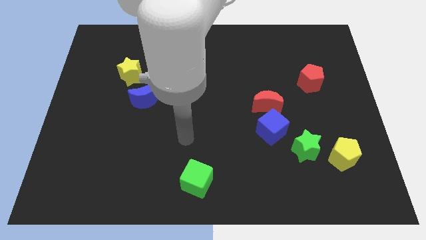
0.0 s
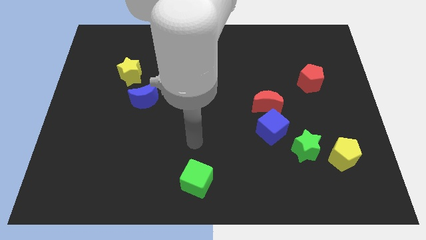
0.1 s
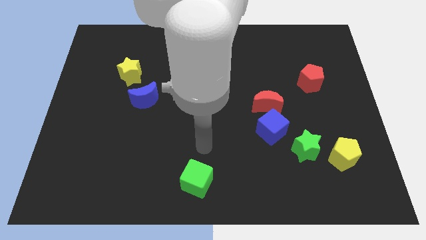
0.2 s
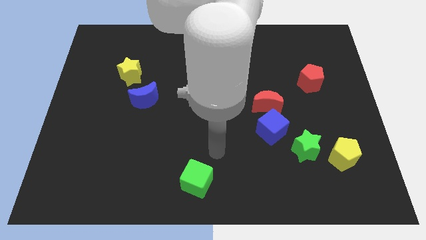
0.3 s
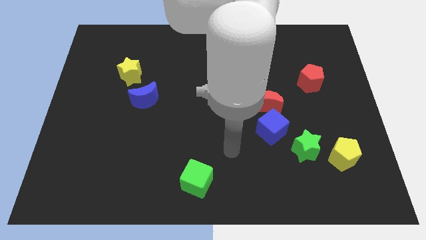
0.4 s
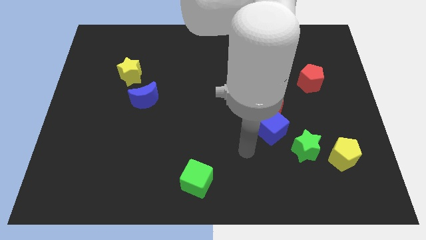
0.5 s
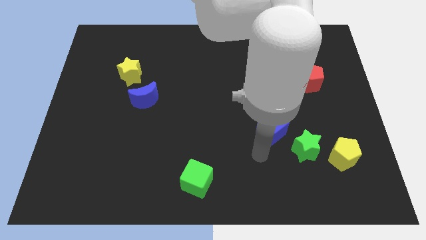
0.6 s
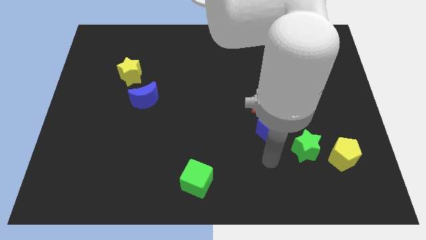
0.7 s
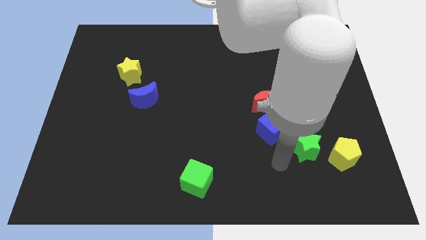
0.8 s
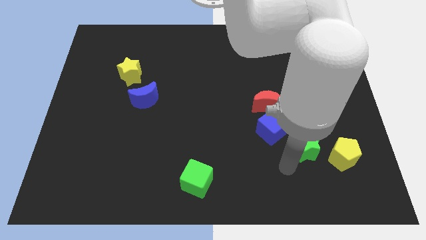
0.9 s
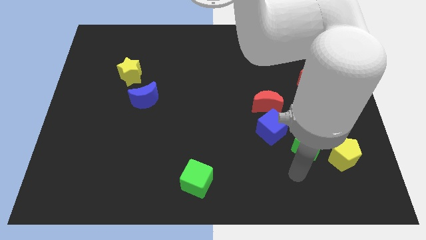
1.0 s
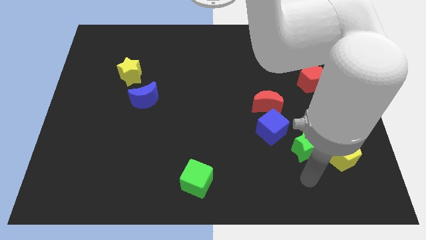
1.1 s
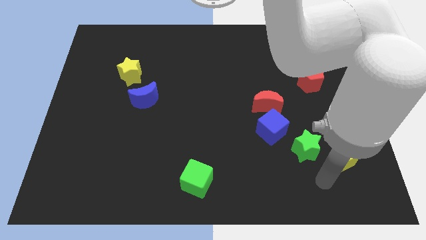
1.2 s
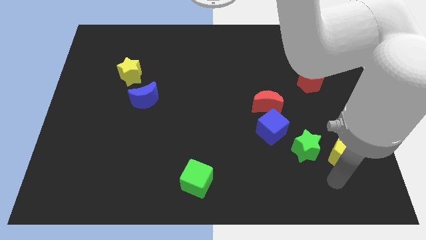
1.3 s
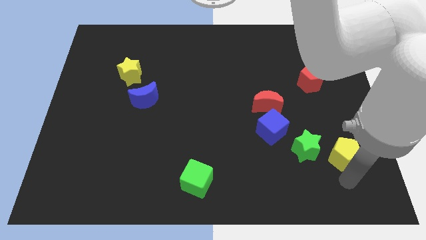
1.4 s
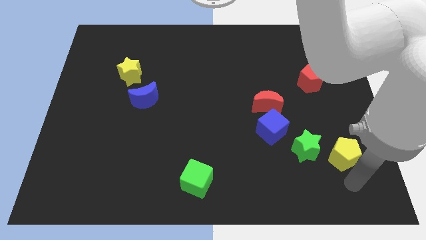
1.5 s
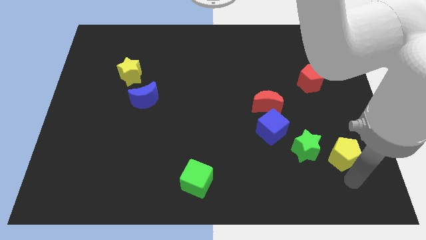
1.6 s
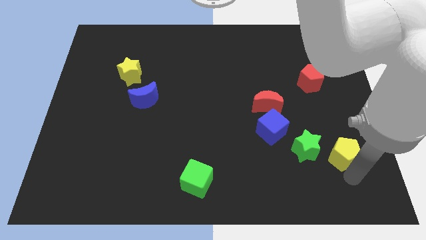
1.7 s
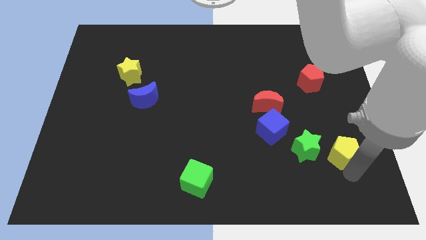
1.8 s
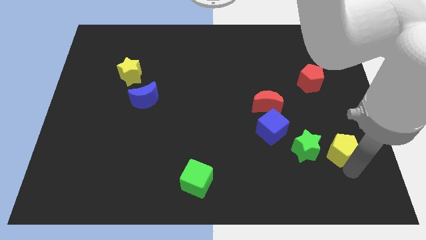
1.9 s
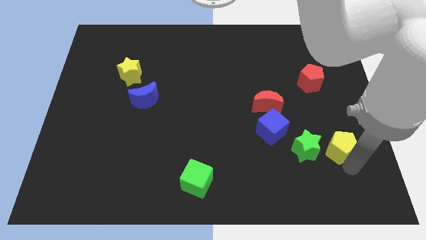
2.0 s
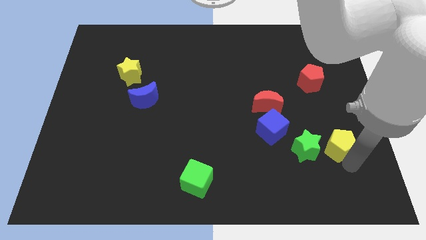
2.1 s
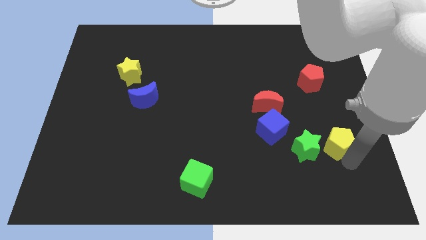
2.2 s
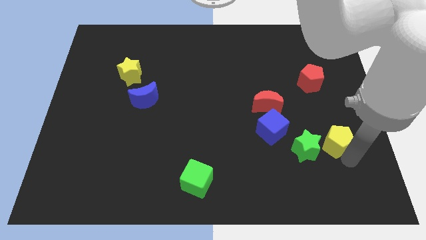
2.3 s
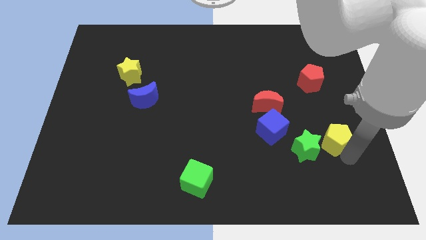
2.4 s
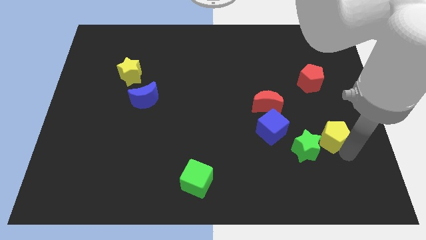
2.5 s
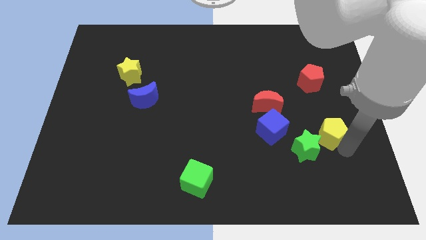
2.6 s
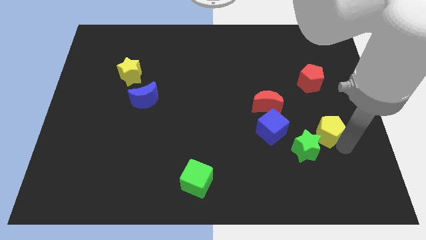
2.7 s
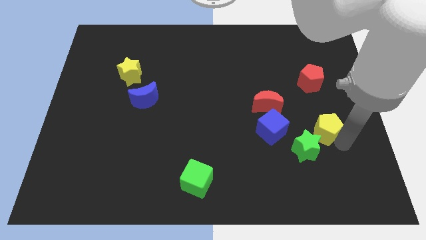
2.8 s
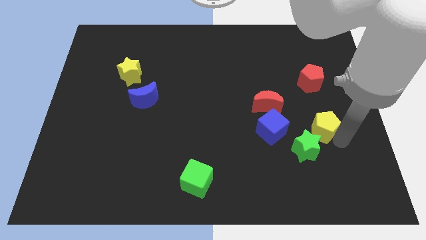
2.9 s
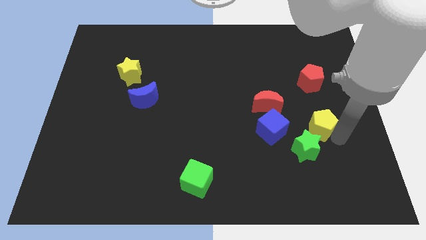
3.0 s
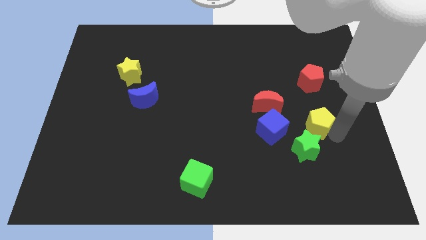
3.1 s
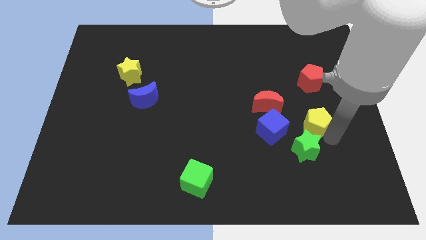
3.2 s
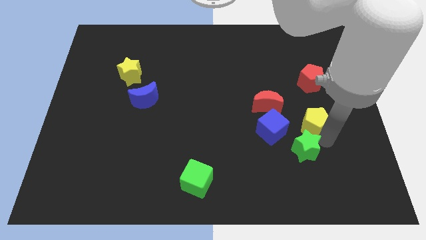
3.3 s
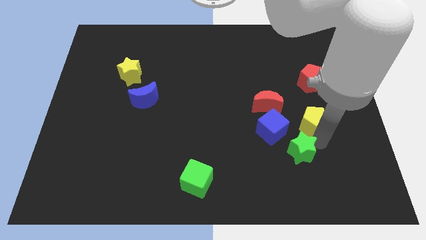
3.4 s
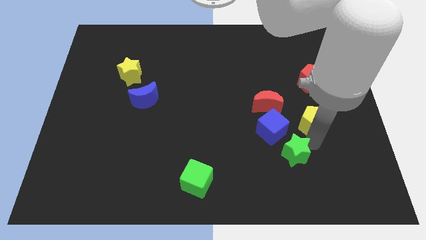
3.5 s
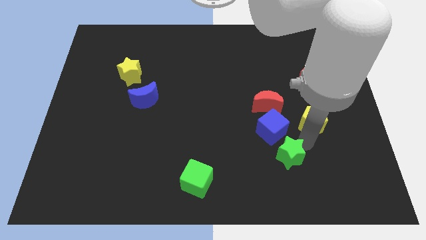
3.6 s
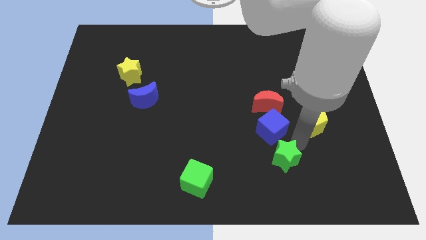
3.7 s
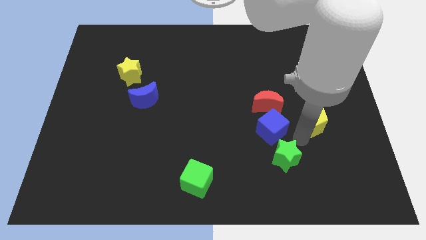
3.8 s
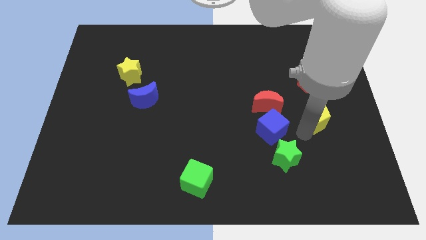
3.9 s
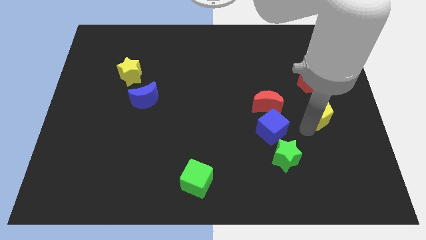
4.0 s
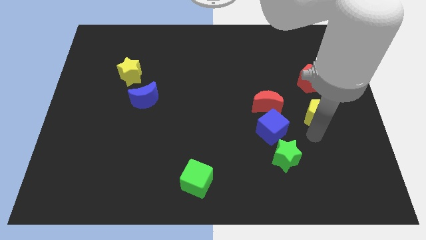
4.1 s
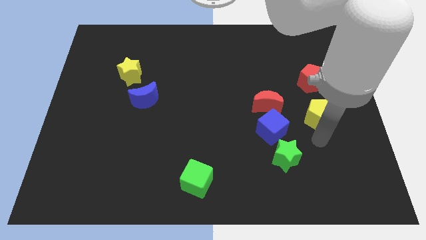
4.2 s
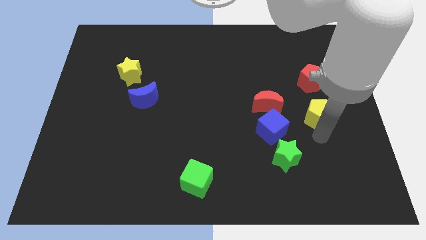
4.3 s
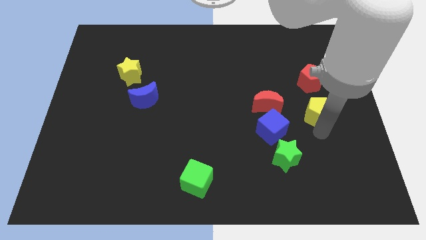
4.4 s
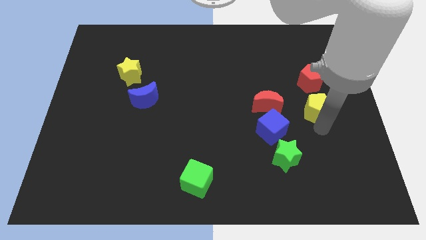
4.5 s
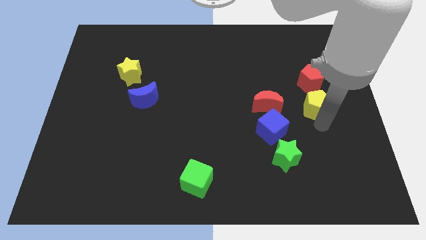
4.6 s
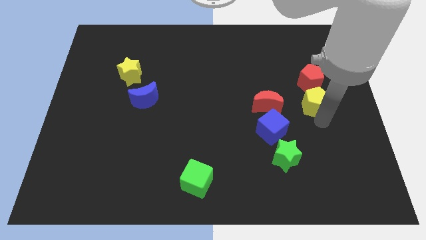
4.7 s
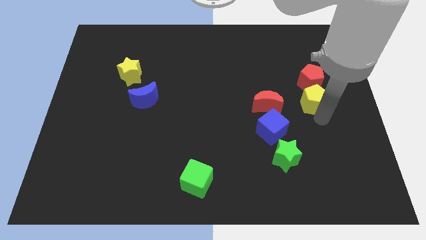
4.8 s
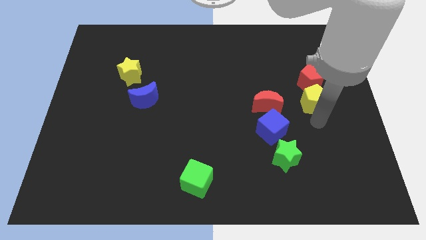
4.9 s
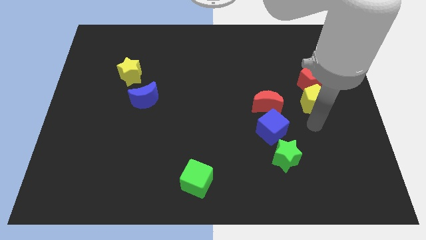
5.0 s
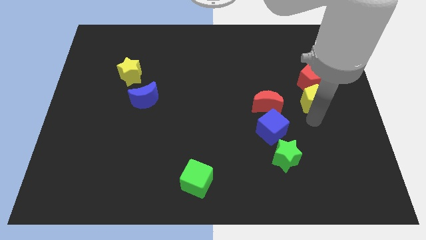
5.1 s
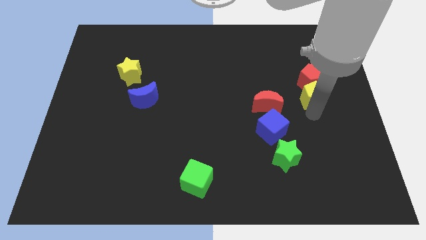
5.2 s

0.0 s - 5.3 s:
push the yellow pentagon next to the red pentagon

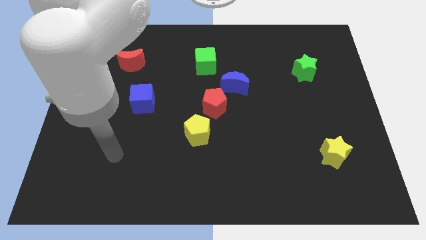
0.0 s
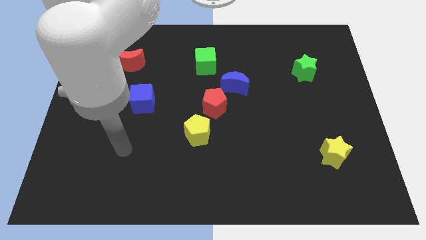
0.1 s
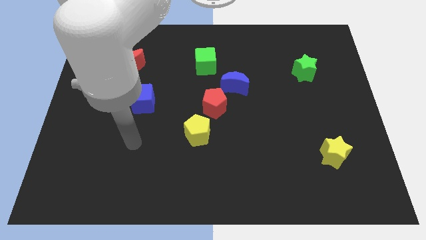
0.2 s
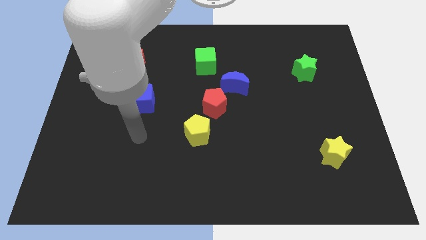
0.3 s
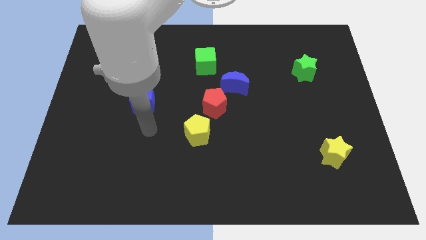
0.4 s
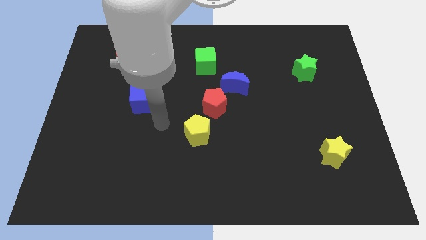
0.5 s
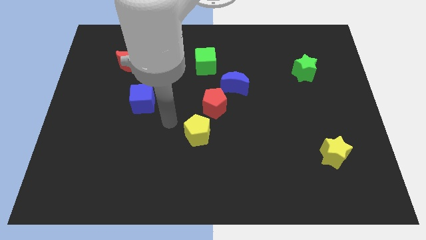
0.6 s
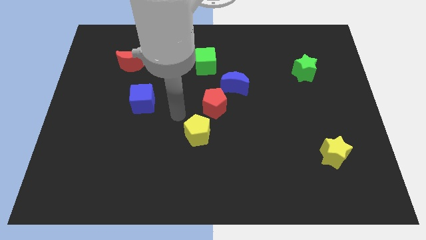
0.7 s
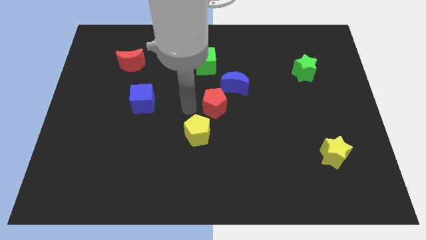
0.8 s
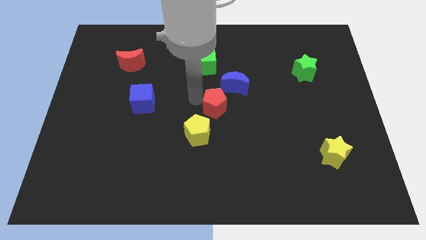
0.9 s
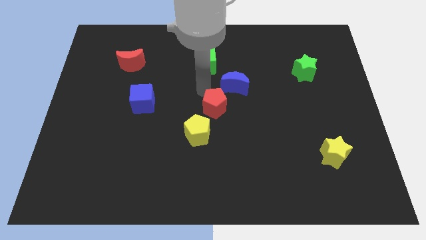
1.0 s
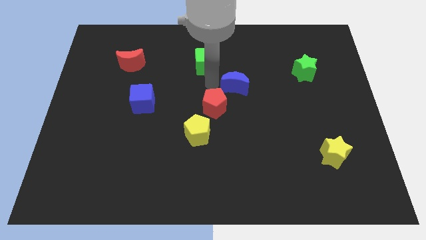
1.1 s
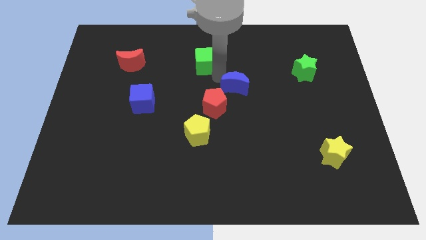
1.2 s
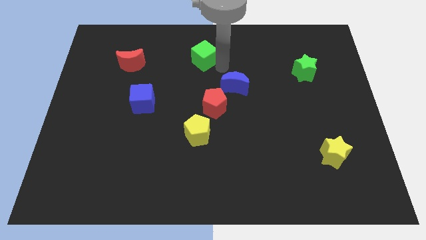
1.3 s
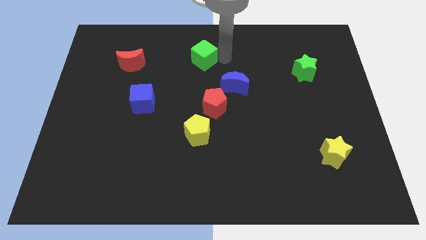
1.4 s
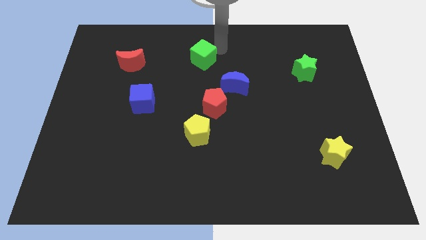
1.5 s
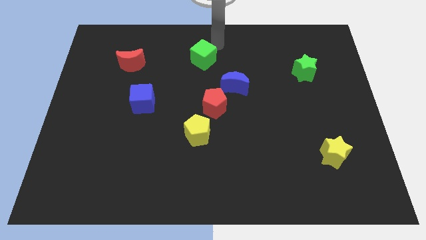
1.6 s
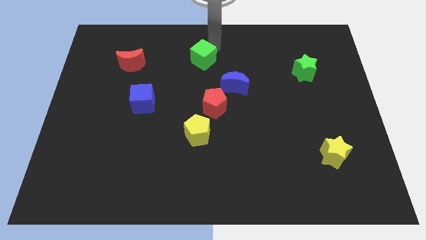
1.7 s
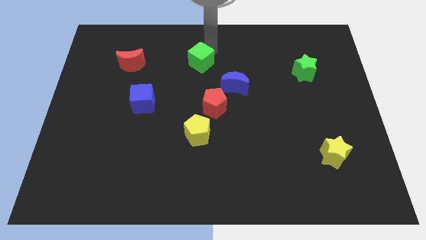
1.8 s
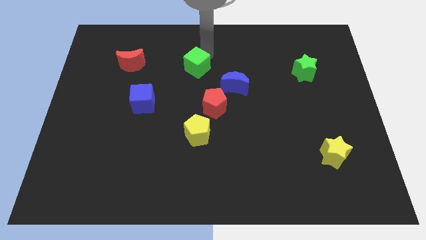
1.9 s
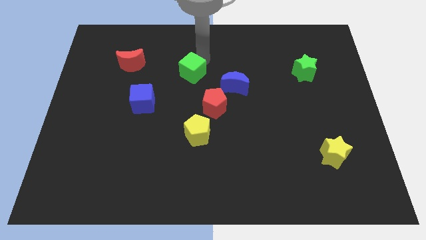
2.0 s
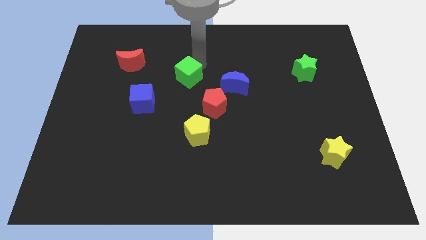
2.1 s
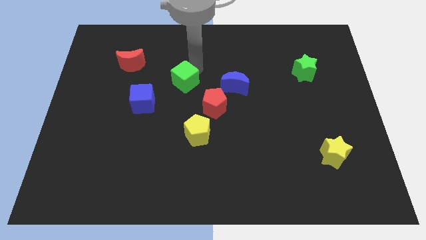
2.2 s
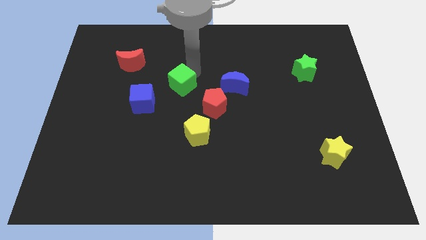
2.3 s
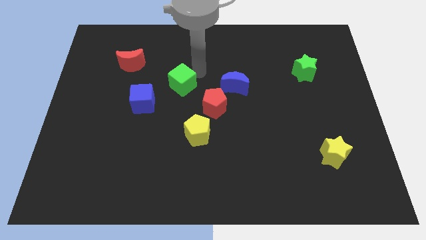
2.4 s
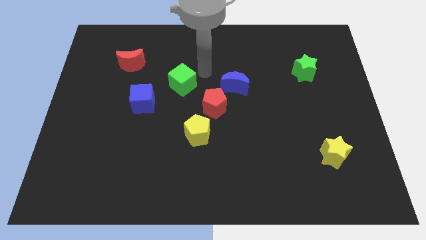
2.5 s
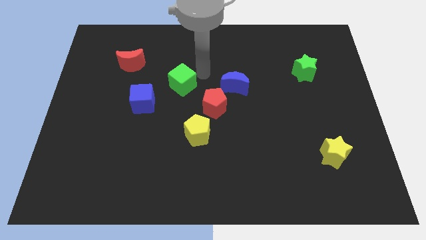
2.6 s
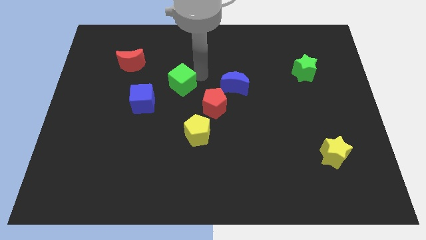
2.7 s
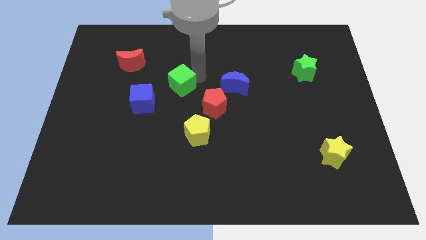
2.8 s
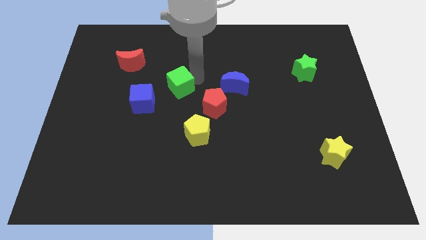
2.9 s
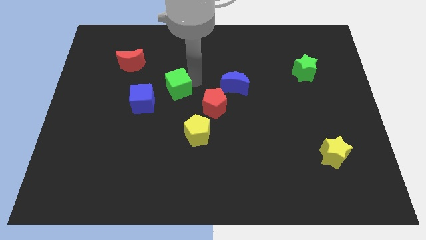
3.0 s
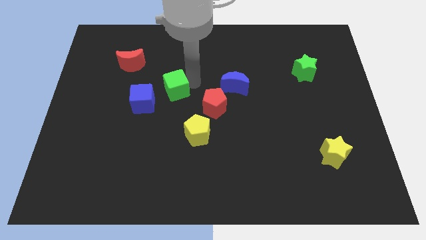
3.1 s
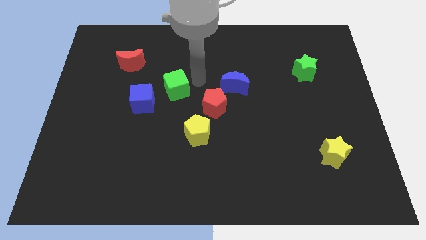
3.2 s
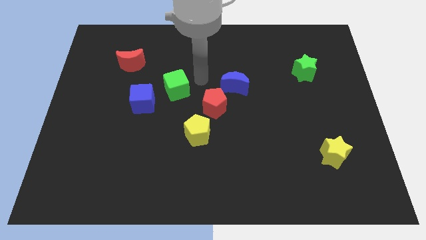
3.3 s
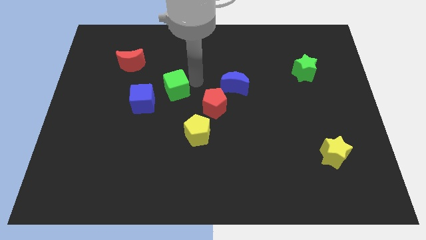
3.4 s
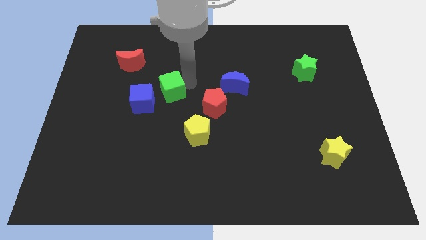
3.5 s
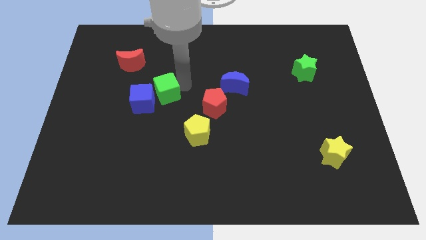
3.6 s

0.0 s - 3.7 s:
put the green cube towards the blue cube
